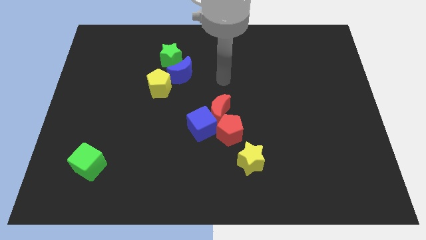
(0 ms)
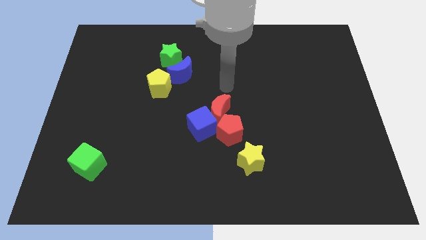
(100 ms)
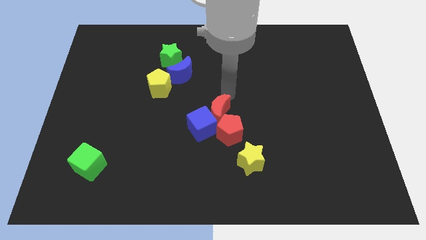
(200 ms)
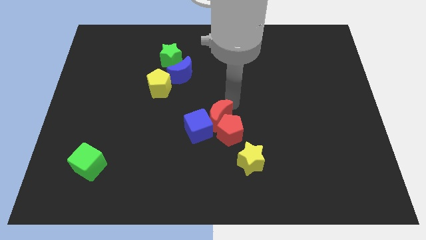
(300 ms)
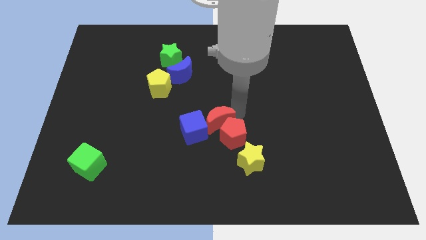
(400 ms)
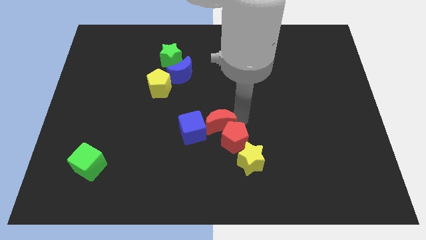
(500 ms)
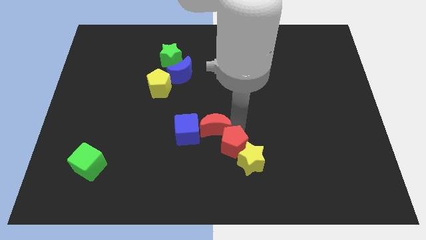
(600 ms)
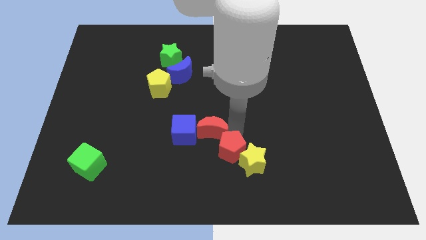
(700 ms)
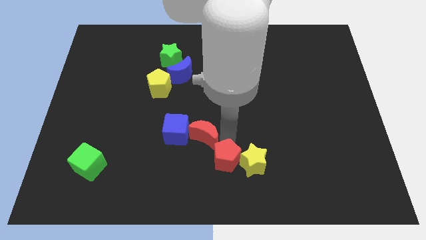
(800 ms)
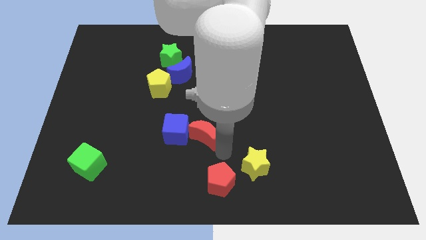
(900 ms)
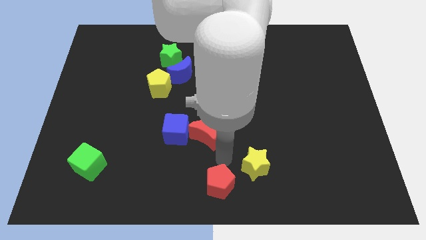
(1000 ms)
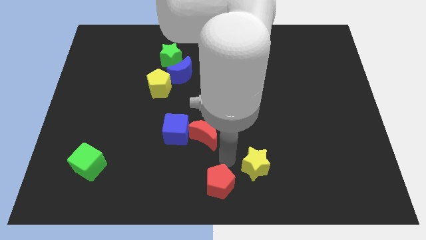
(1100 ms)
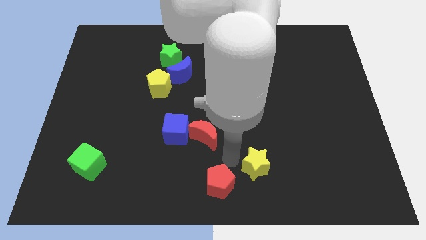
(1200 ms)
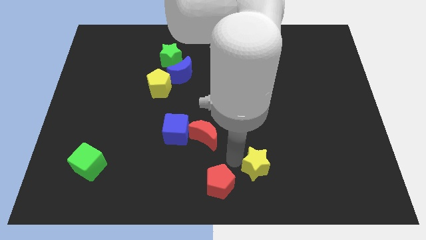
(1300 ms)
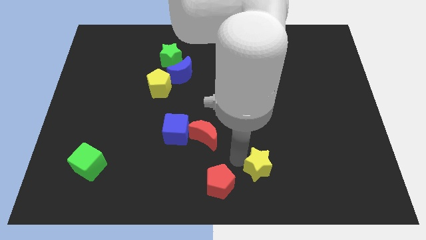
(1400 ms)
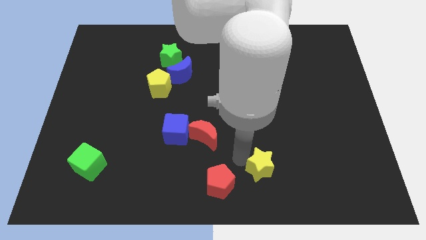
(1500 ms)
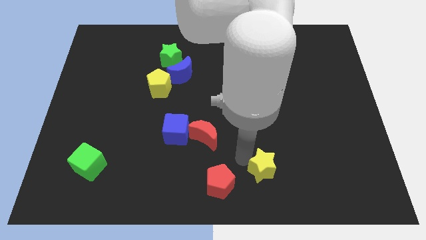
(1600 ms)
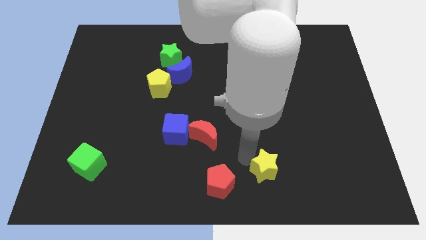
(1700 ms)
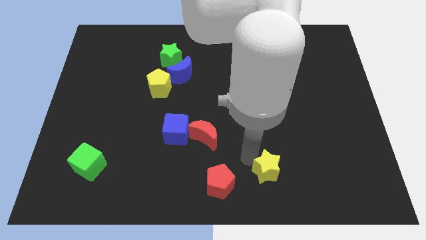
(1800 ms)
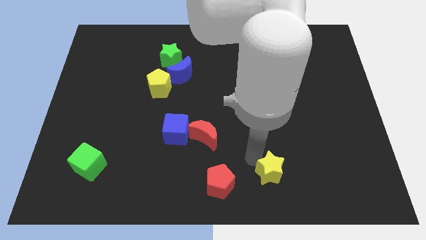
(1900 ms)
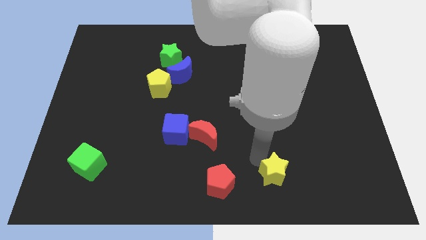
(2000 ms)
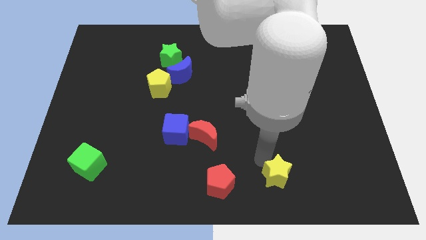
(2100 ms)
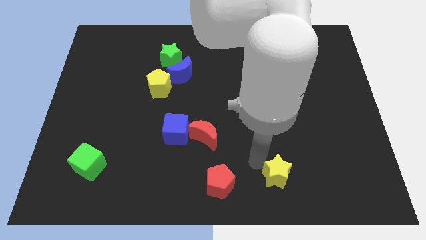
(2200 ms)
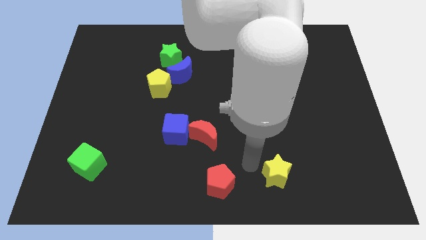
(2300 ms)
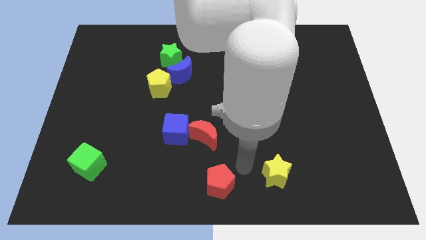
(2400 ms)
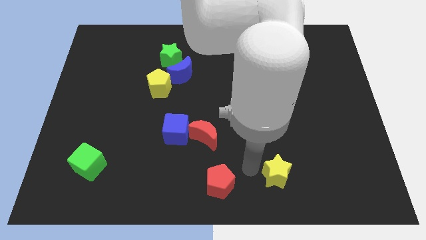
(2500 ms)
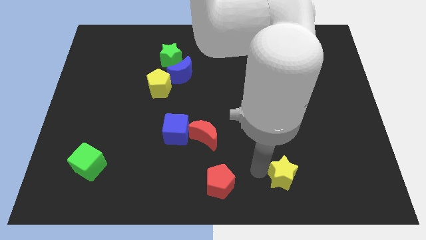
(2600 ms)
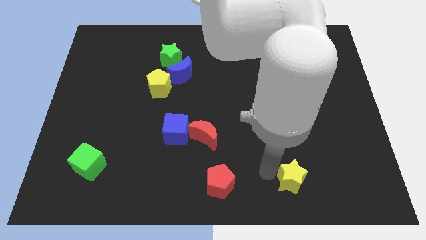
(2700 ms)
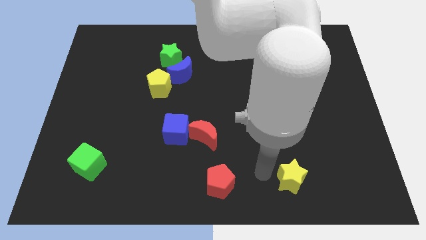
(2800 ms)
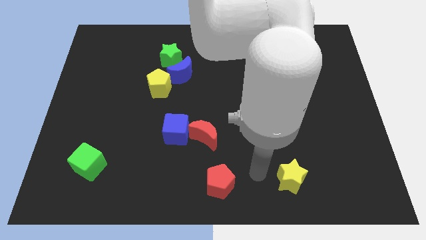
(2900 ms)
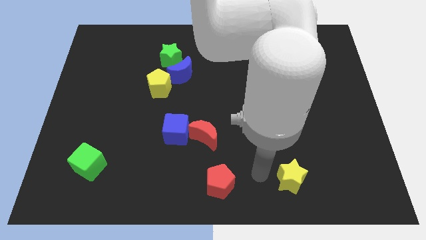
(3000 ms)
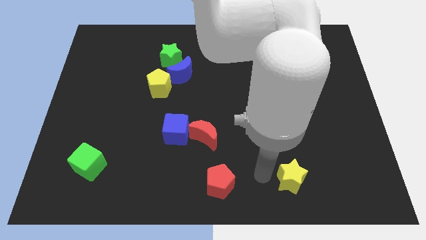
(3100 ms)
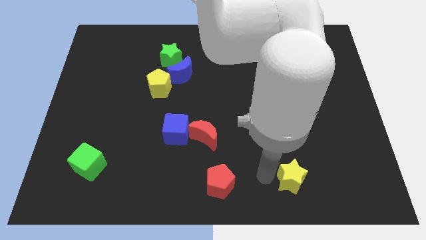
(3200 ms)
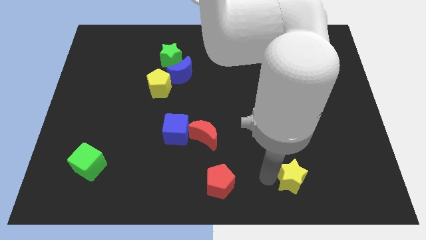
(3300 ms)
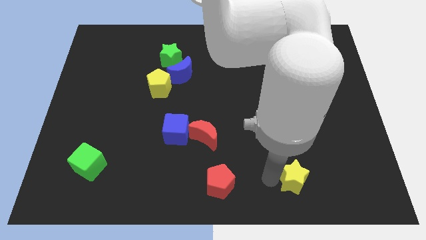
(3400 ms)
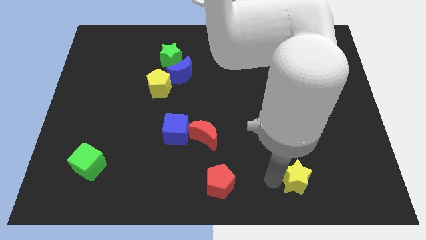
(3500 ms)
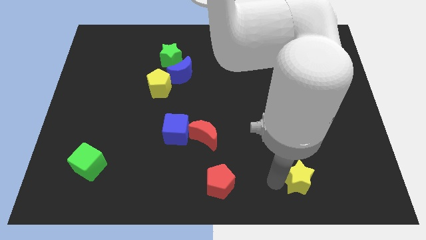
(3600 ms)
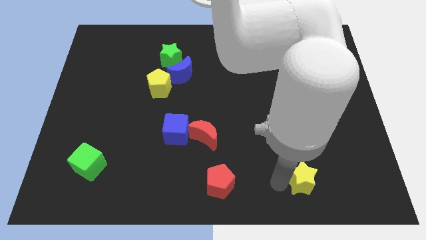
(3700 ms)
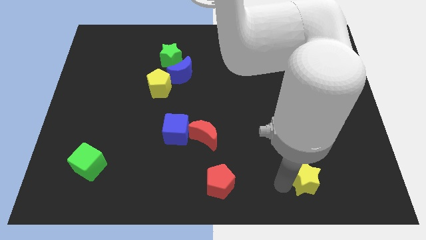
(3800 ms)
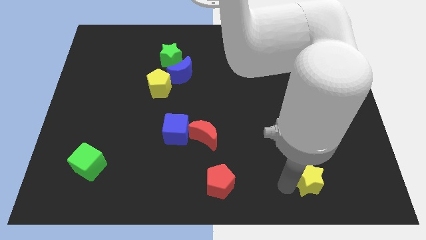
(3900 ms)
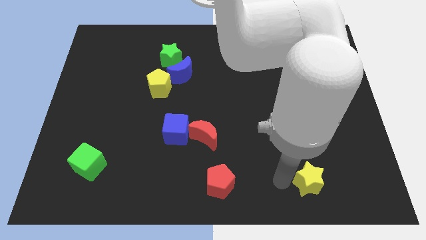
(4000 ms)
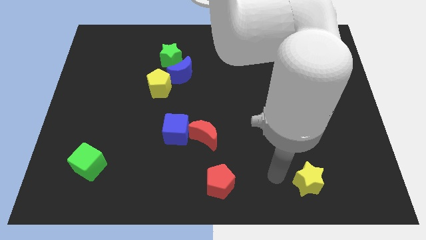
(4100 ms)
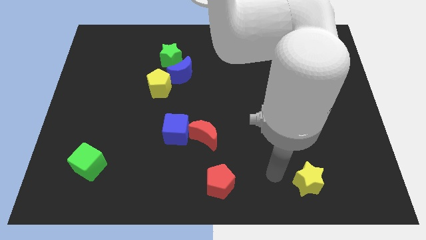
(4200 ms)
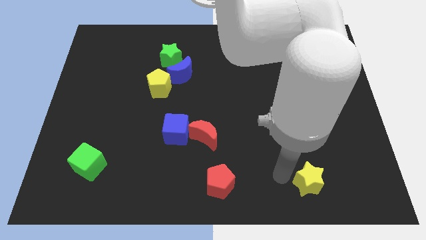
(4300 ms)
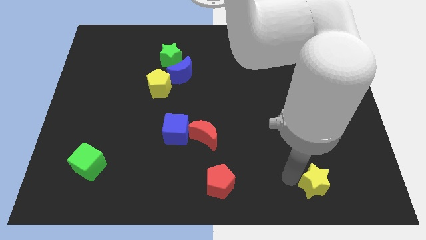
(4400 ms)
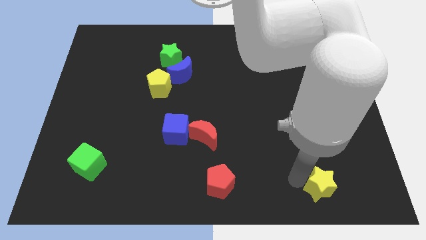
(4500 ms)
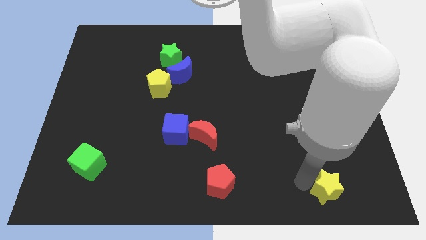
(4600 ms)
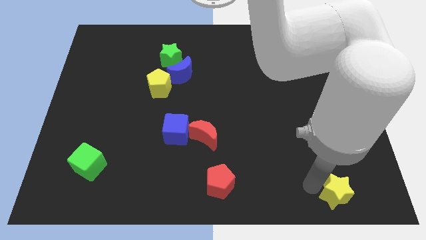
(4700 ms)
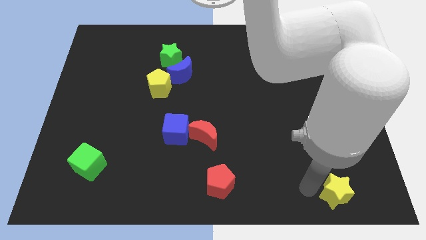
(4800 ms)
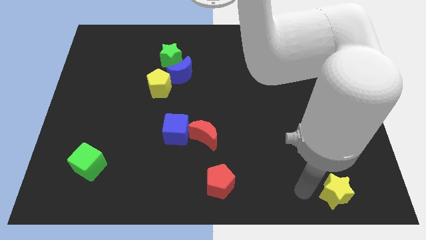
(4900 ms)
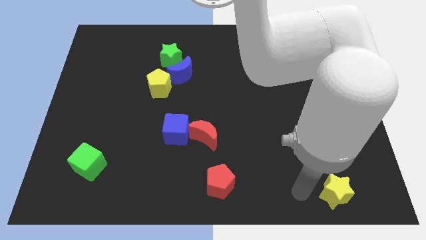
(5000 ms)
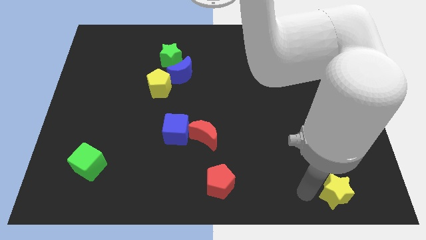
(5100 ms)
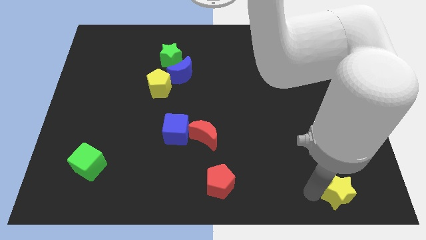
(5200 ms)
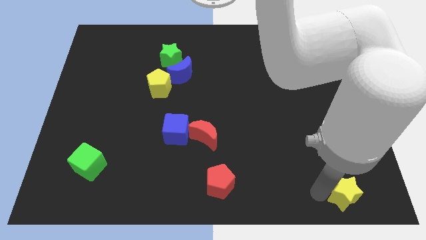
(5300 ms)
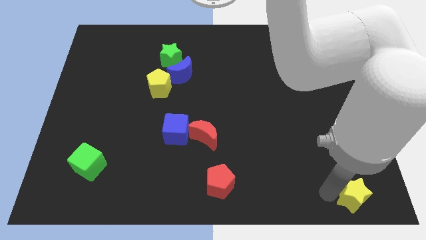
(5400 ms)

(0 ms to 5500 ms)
move the yellow star to the lower right corner

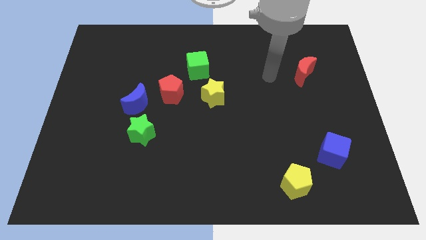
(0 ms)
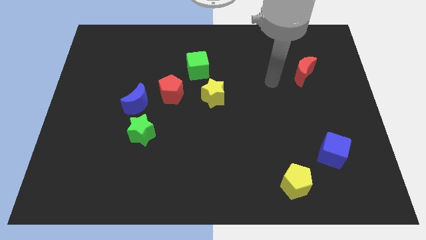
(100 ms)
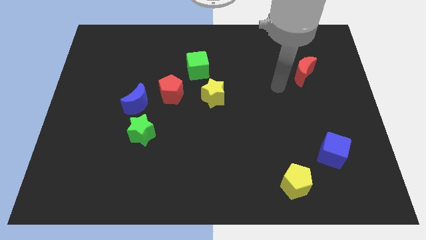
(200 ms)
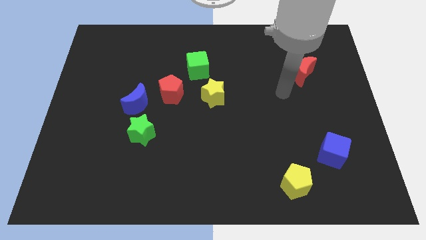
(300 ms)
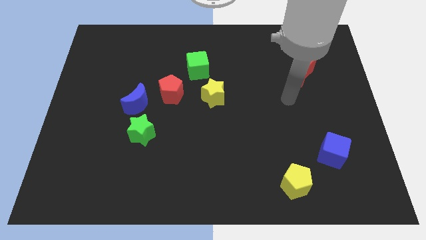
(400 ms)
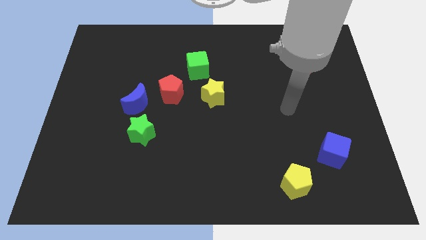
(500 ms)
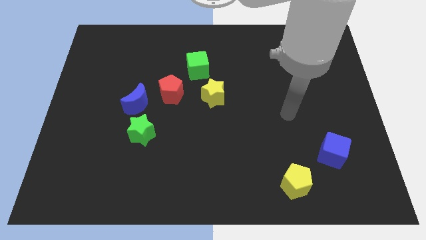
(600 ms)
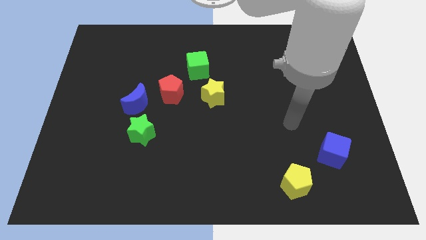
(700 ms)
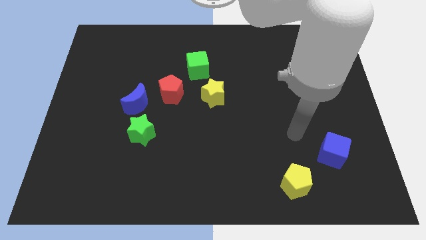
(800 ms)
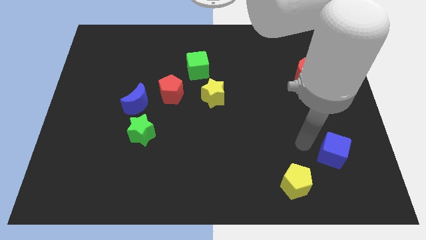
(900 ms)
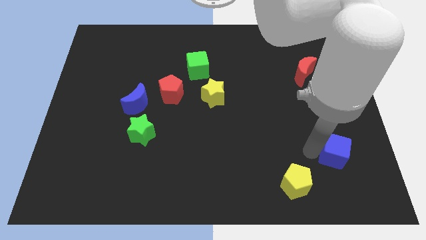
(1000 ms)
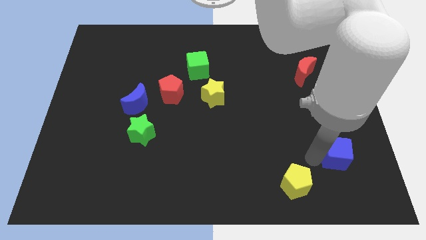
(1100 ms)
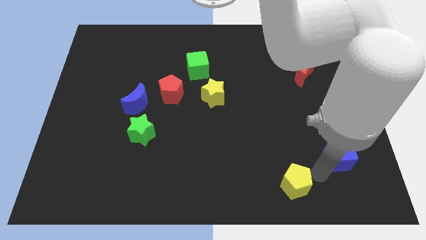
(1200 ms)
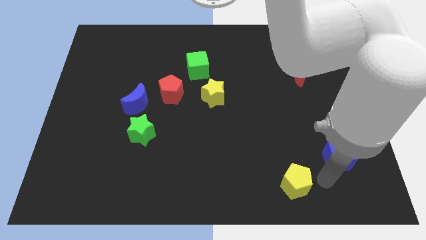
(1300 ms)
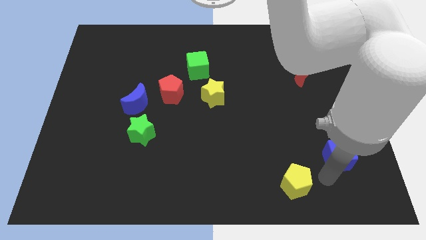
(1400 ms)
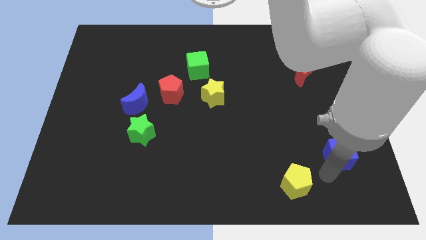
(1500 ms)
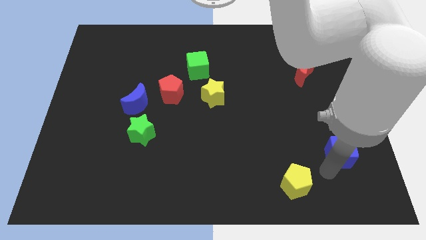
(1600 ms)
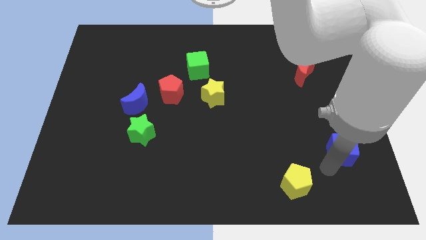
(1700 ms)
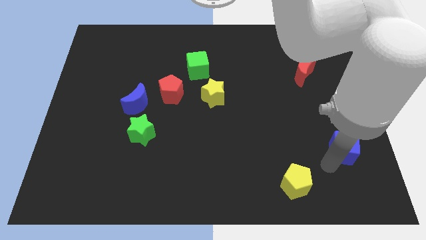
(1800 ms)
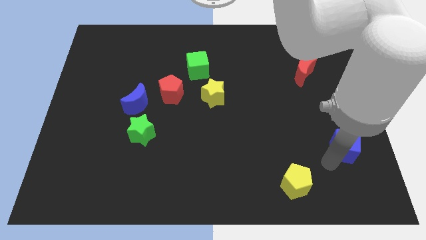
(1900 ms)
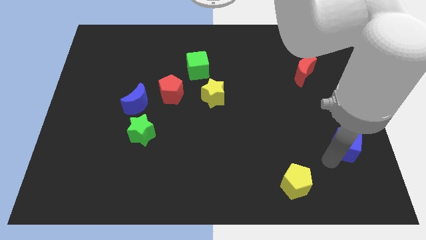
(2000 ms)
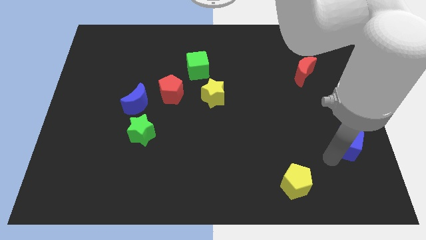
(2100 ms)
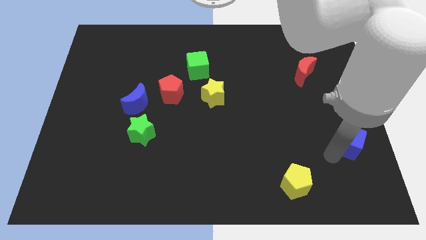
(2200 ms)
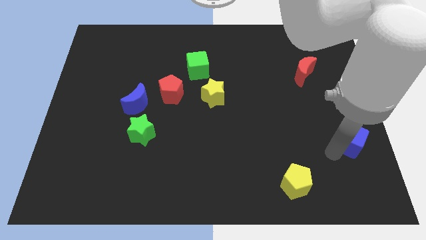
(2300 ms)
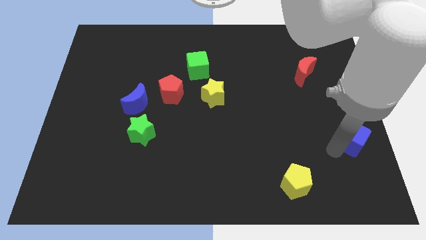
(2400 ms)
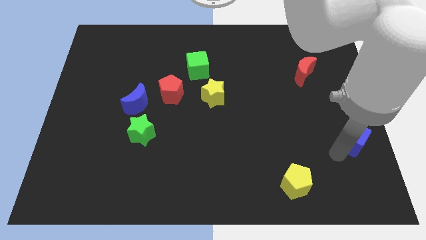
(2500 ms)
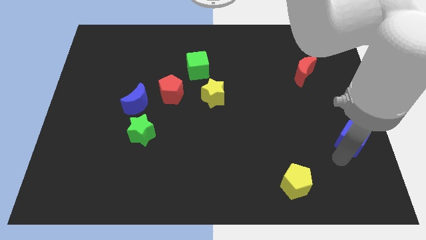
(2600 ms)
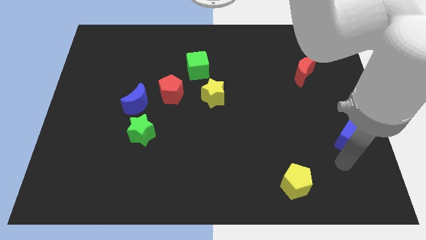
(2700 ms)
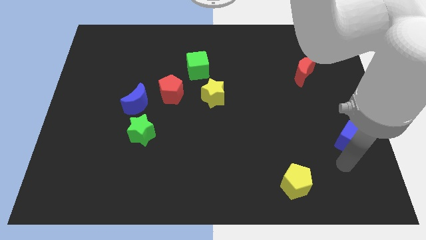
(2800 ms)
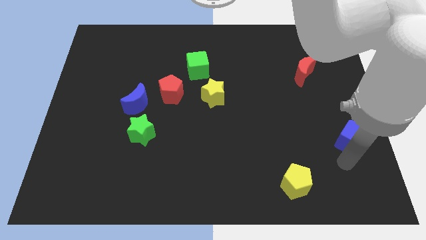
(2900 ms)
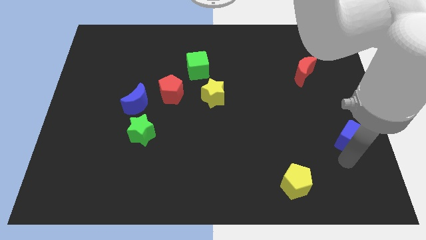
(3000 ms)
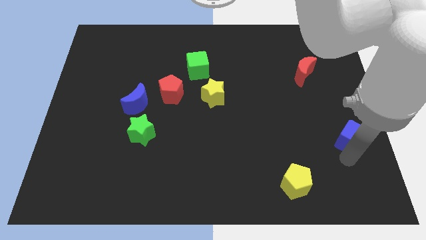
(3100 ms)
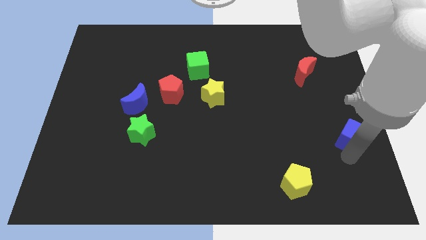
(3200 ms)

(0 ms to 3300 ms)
push the blue cube to the right side of the board
